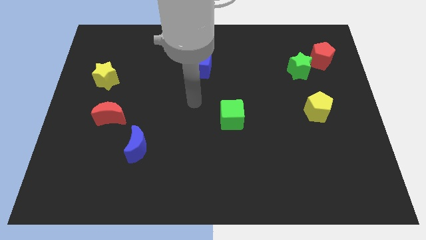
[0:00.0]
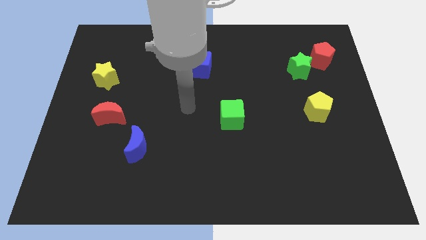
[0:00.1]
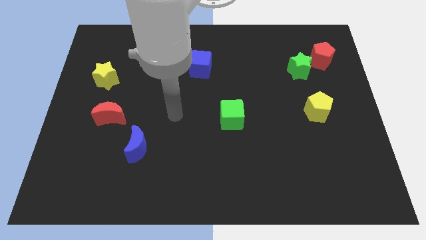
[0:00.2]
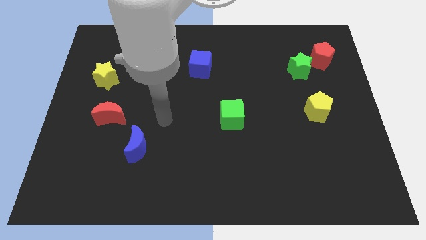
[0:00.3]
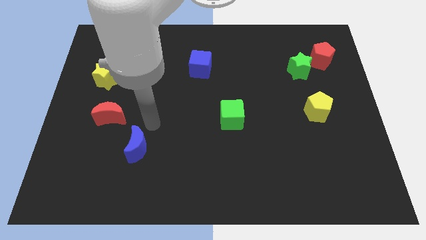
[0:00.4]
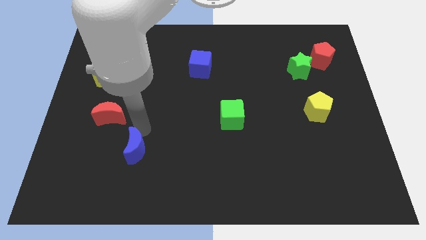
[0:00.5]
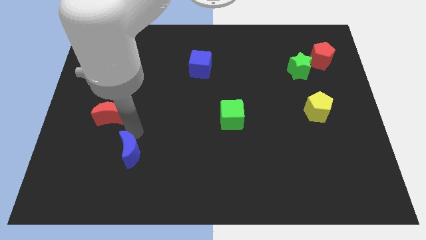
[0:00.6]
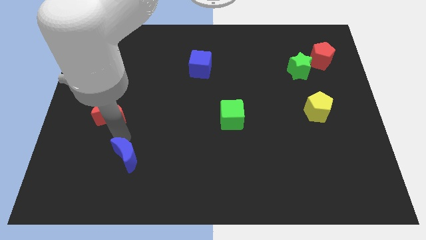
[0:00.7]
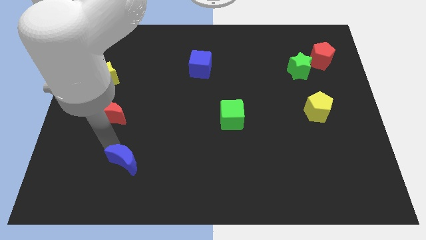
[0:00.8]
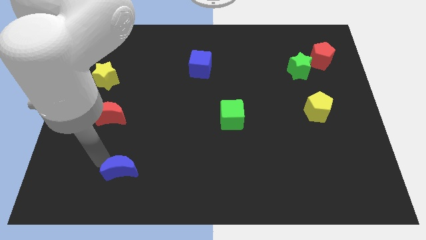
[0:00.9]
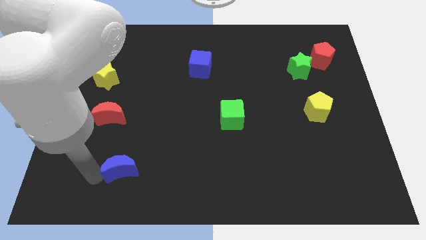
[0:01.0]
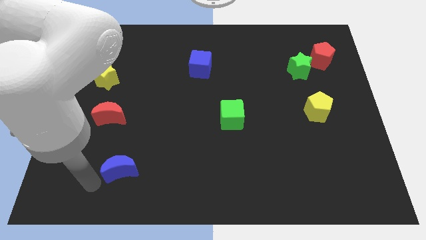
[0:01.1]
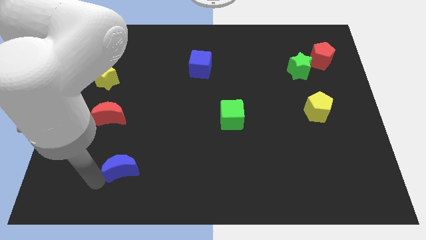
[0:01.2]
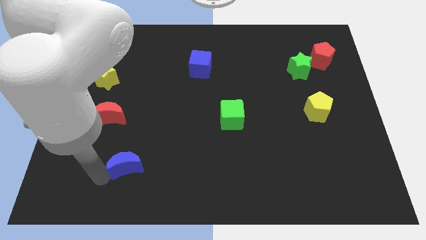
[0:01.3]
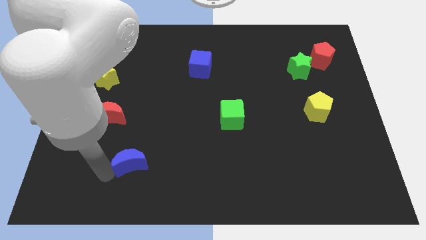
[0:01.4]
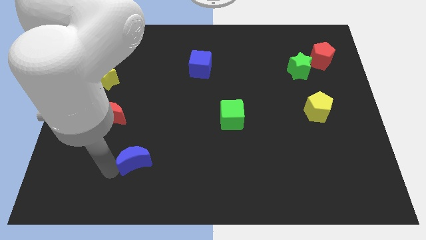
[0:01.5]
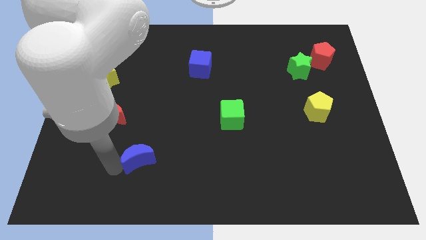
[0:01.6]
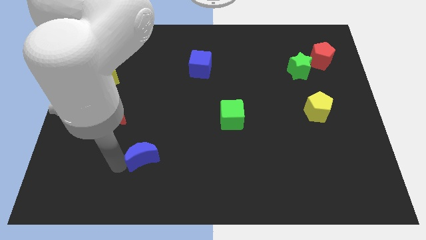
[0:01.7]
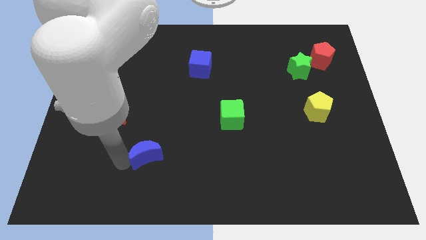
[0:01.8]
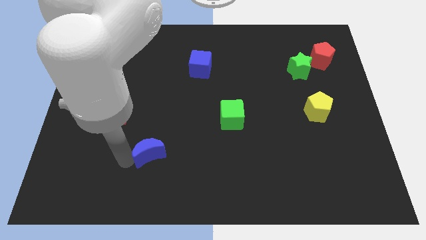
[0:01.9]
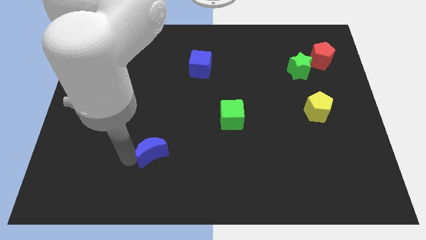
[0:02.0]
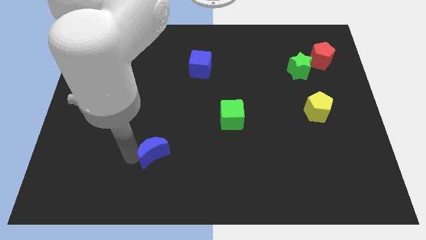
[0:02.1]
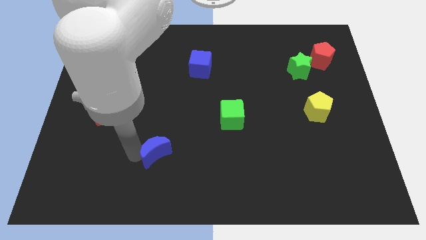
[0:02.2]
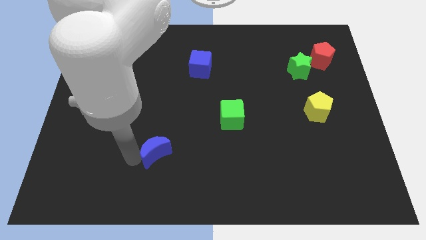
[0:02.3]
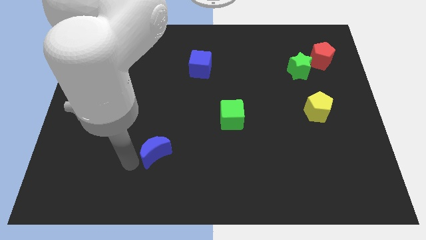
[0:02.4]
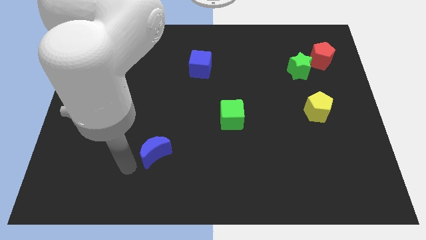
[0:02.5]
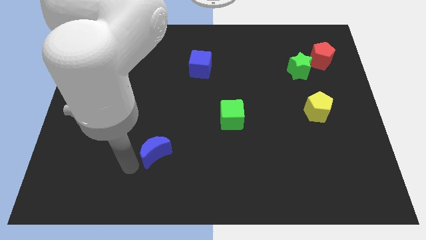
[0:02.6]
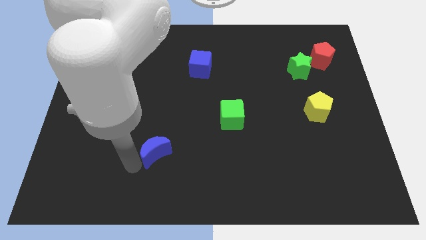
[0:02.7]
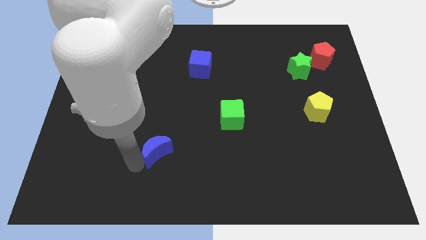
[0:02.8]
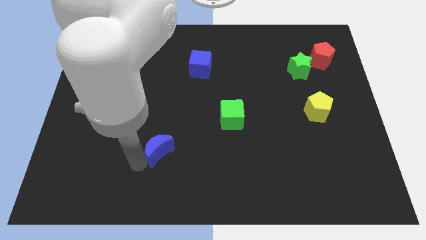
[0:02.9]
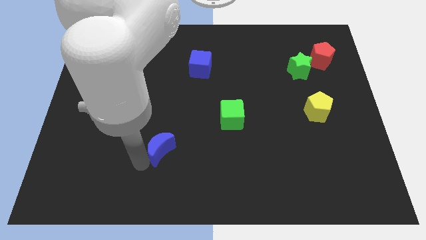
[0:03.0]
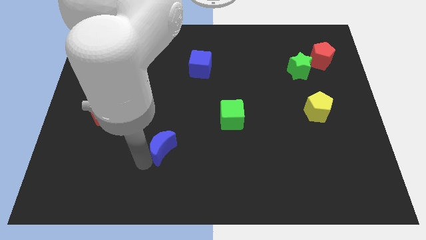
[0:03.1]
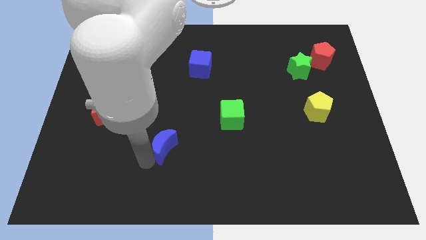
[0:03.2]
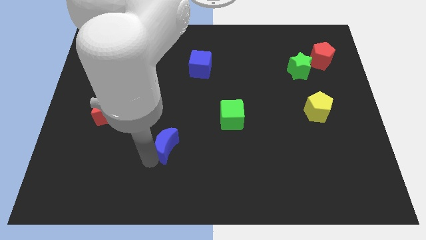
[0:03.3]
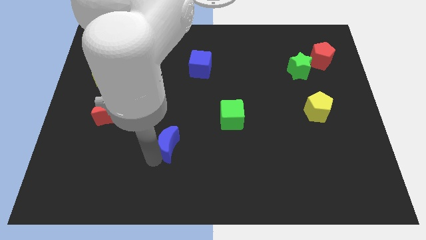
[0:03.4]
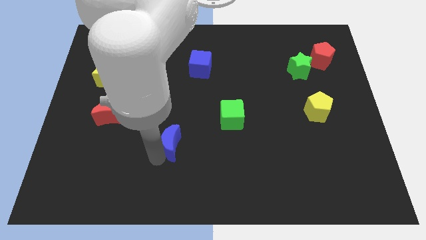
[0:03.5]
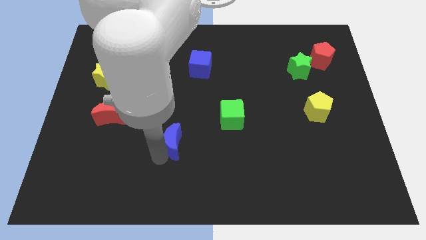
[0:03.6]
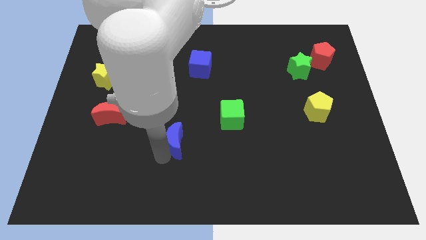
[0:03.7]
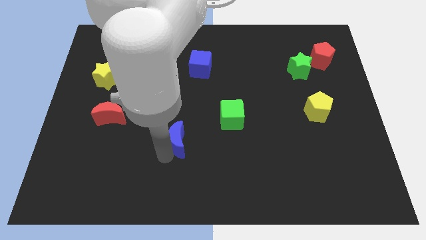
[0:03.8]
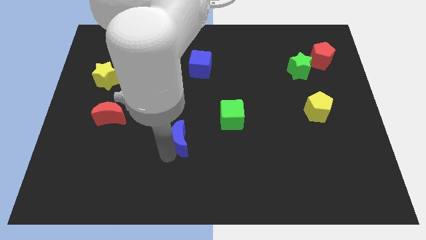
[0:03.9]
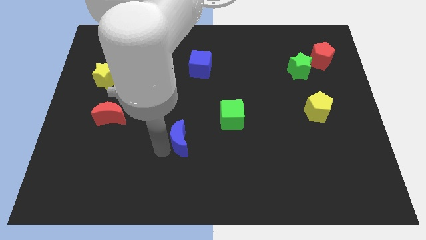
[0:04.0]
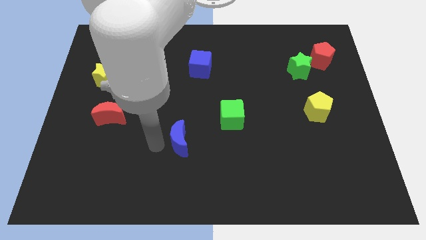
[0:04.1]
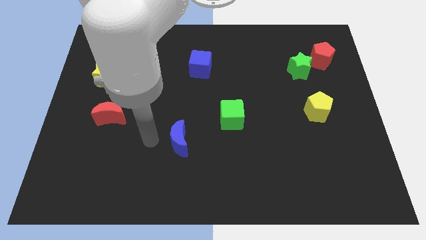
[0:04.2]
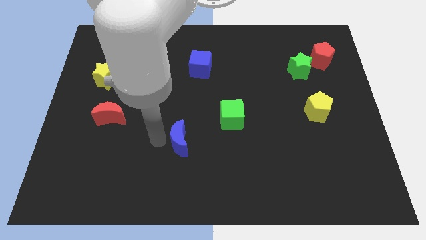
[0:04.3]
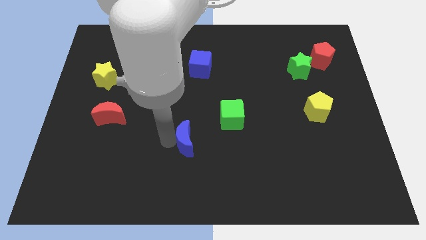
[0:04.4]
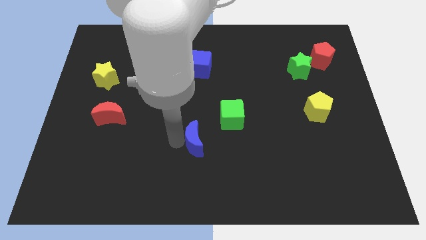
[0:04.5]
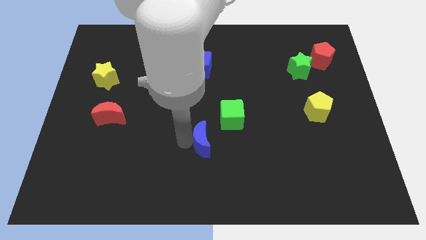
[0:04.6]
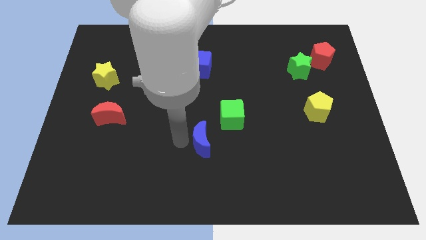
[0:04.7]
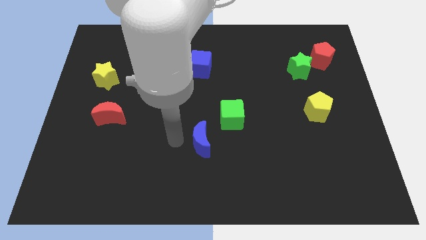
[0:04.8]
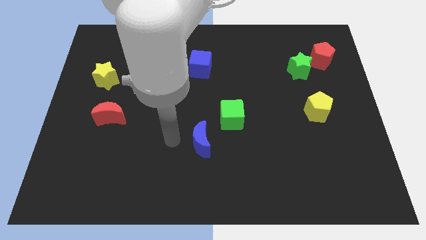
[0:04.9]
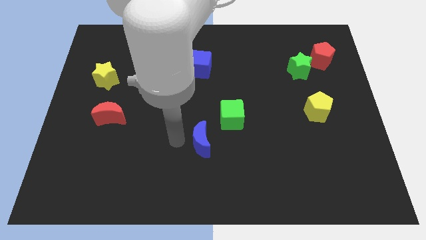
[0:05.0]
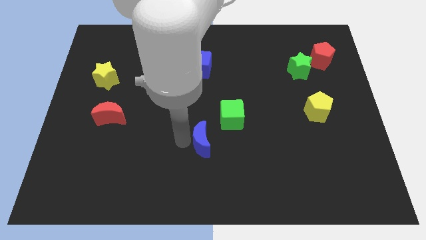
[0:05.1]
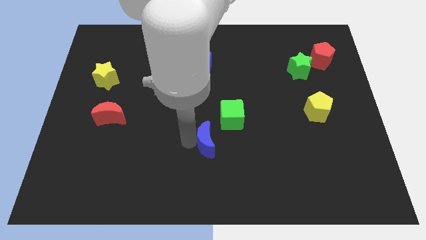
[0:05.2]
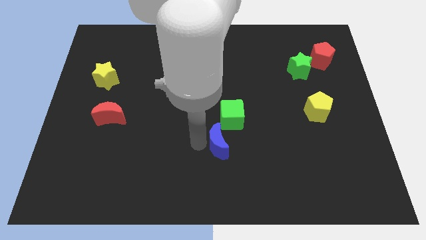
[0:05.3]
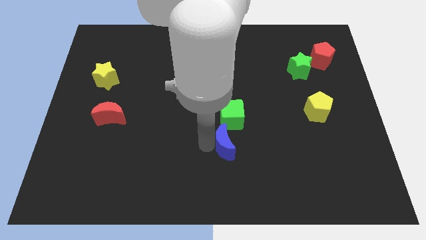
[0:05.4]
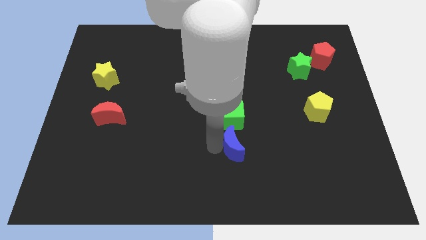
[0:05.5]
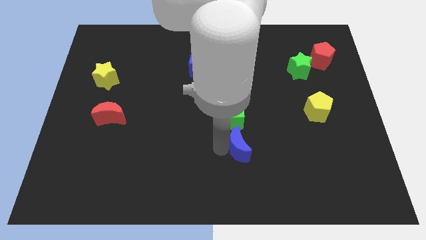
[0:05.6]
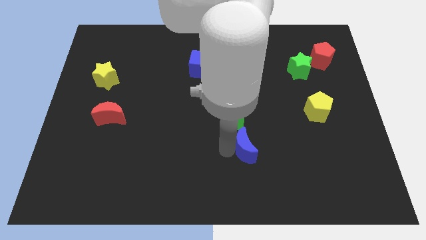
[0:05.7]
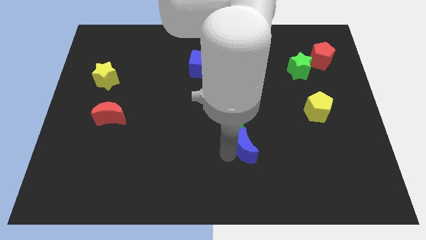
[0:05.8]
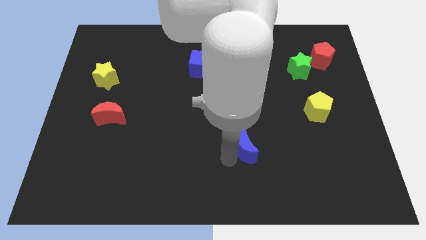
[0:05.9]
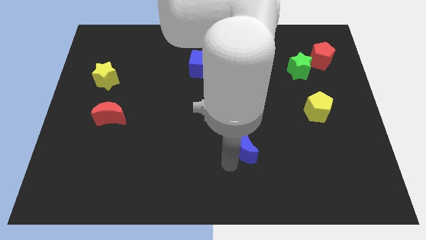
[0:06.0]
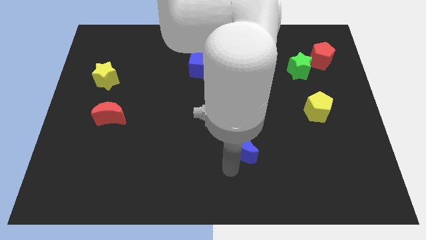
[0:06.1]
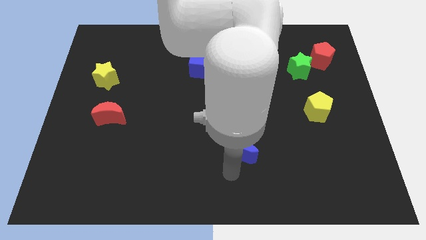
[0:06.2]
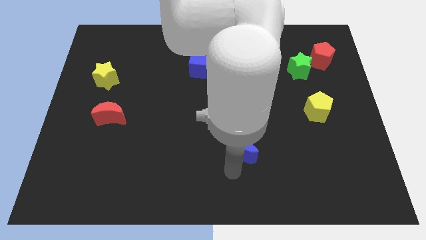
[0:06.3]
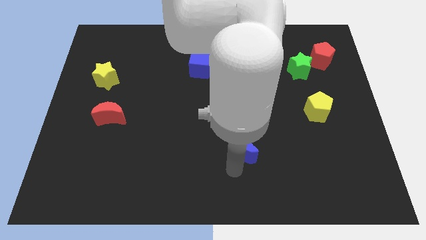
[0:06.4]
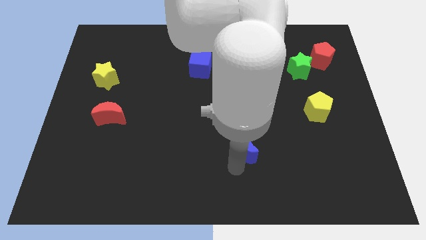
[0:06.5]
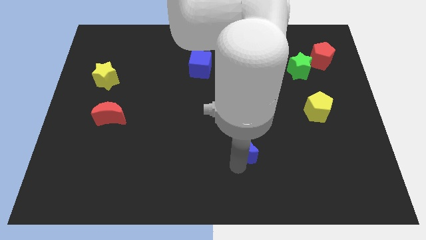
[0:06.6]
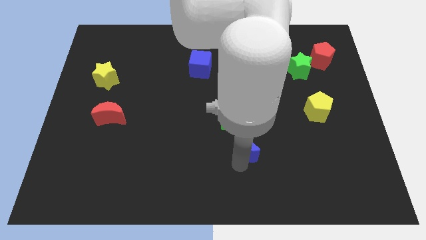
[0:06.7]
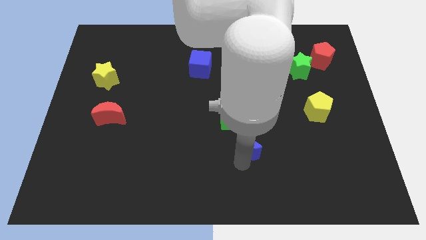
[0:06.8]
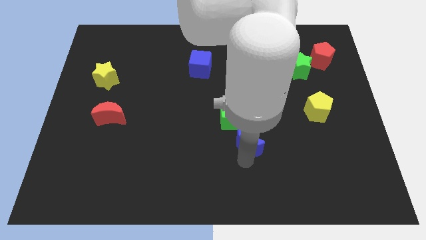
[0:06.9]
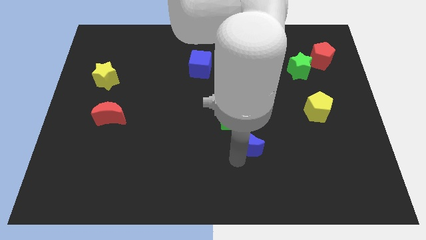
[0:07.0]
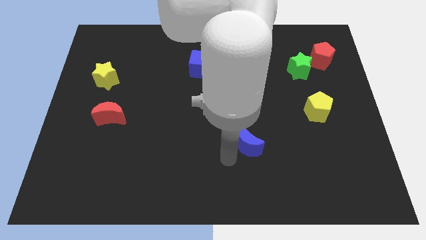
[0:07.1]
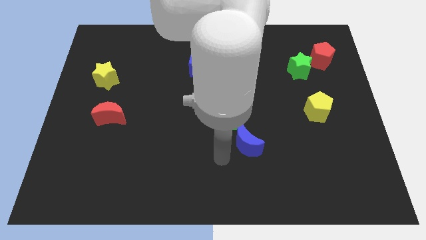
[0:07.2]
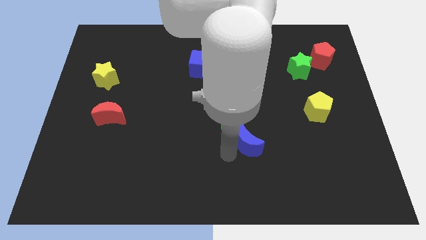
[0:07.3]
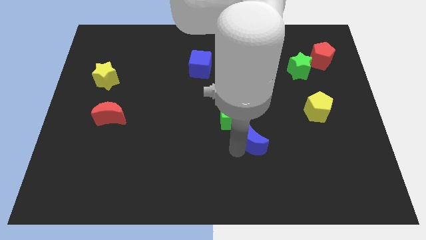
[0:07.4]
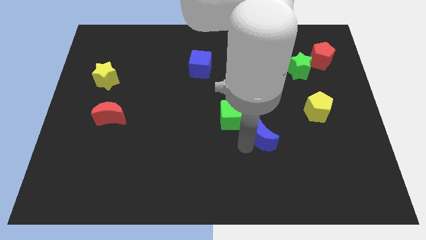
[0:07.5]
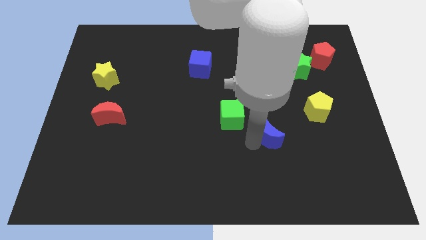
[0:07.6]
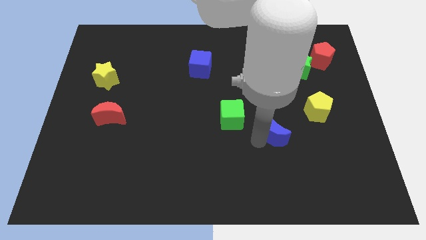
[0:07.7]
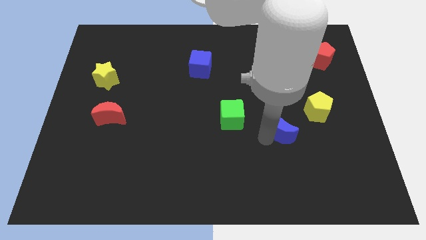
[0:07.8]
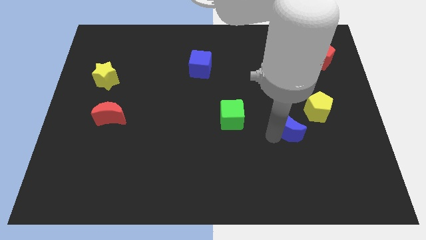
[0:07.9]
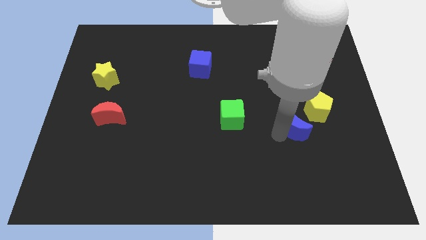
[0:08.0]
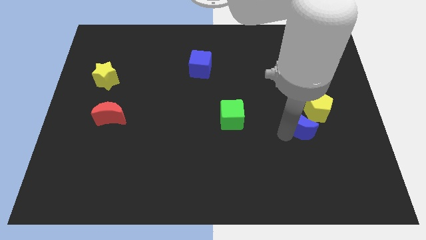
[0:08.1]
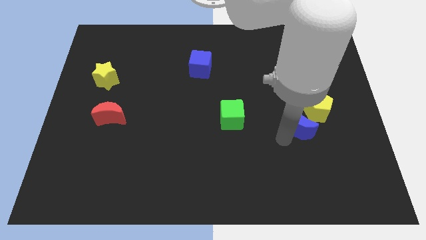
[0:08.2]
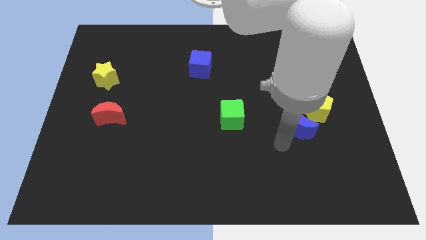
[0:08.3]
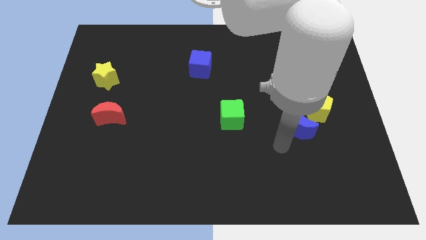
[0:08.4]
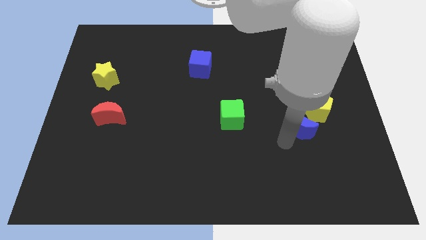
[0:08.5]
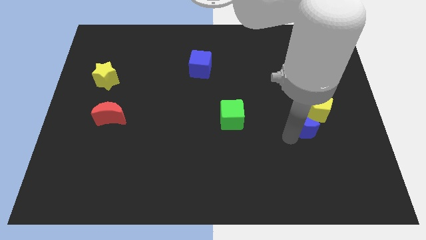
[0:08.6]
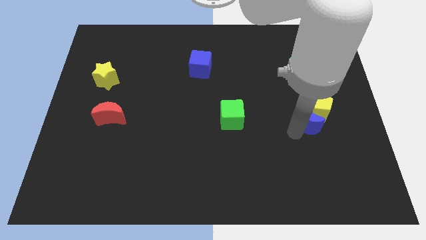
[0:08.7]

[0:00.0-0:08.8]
slide the blue moon next to the yellow pentagon
